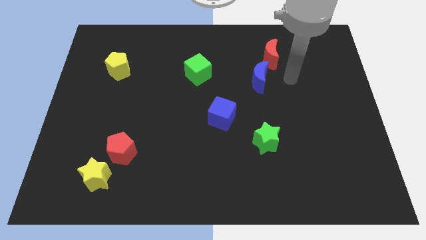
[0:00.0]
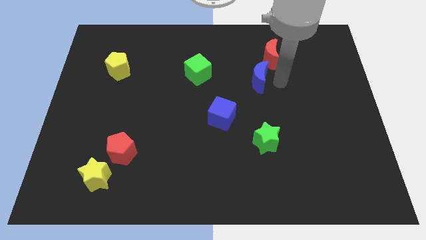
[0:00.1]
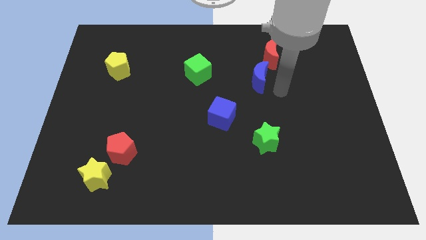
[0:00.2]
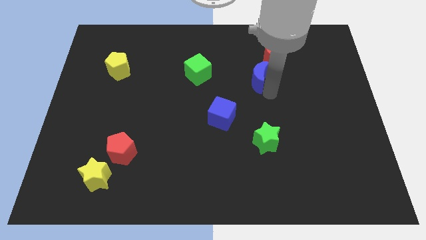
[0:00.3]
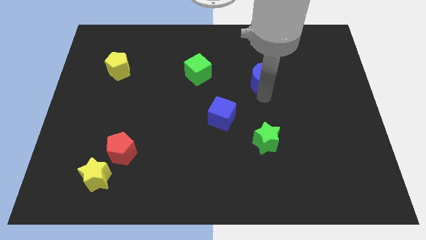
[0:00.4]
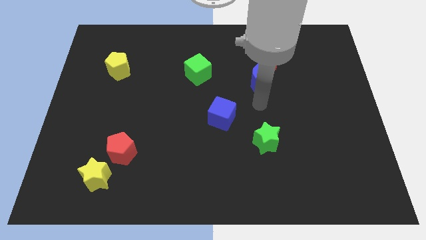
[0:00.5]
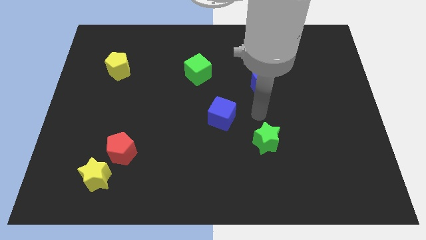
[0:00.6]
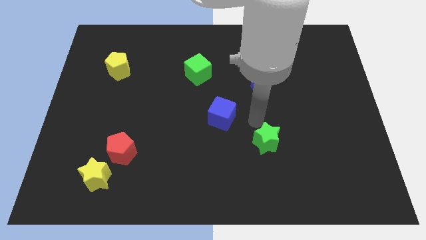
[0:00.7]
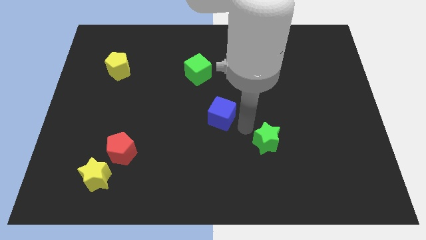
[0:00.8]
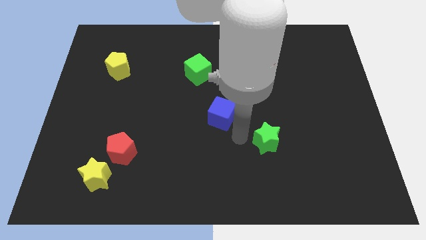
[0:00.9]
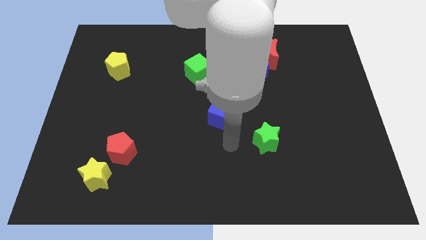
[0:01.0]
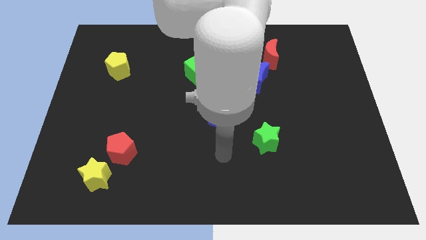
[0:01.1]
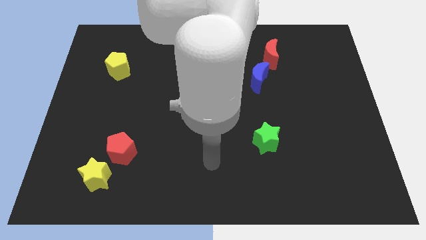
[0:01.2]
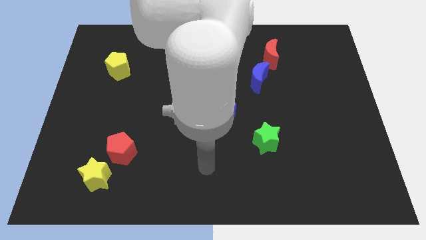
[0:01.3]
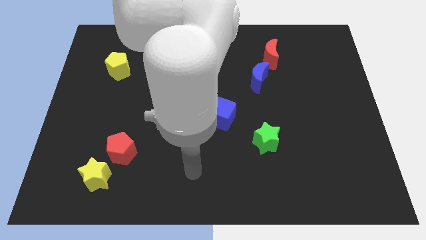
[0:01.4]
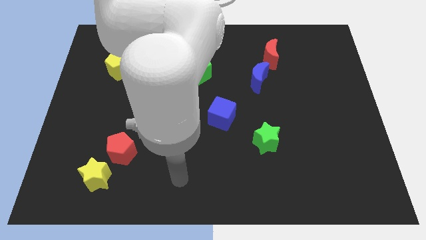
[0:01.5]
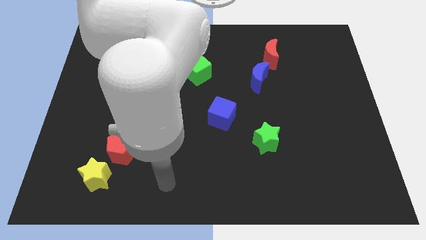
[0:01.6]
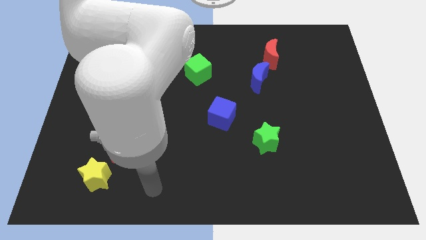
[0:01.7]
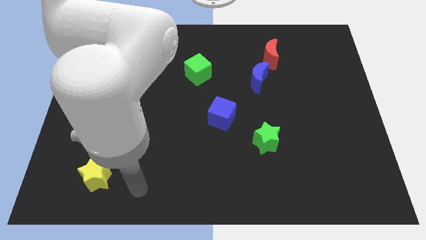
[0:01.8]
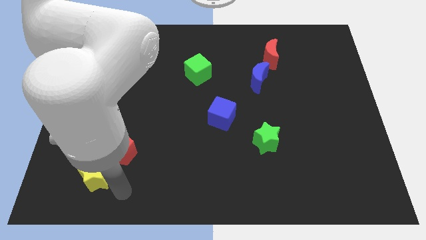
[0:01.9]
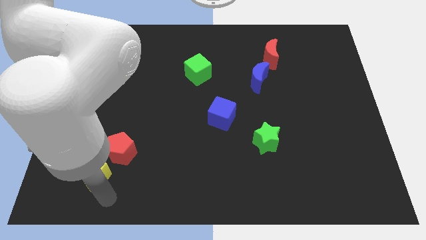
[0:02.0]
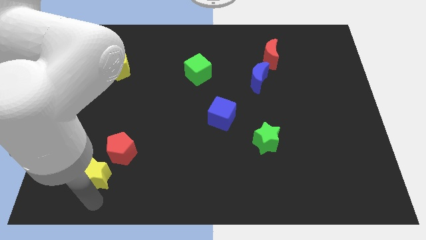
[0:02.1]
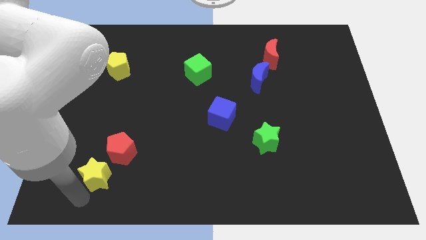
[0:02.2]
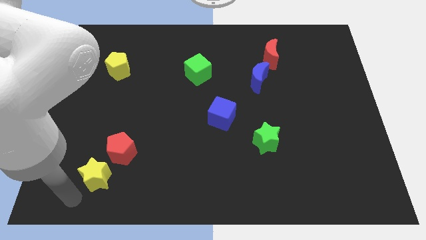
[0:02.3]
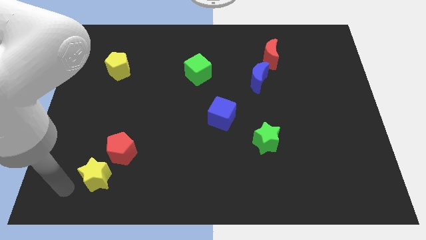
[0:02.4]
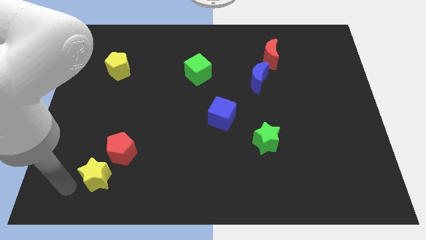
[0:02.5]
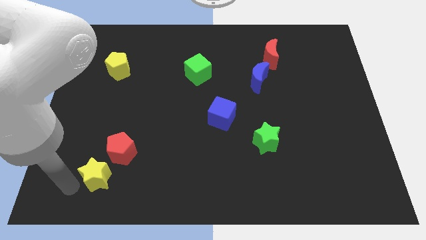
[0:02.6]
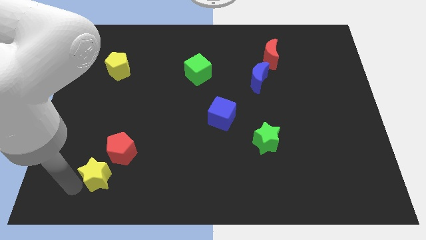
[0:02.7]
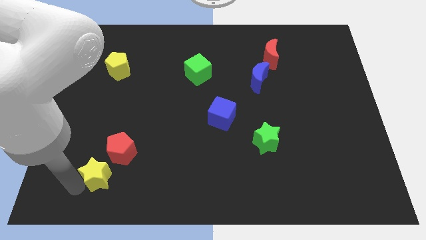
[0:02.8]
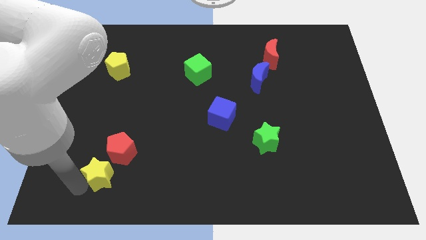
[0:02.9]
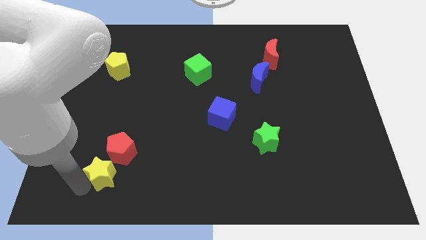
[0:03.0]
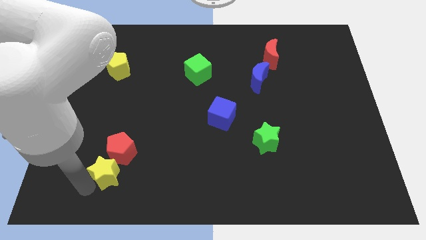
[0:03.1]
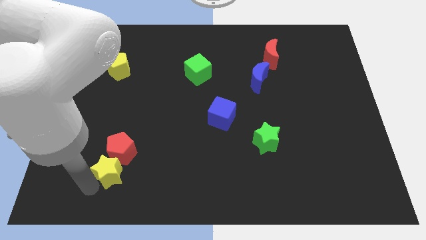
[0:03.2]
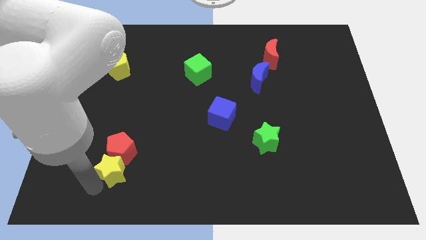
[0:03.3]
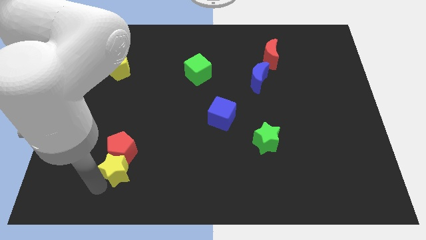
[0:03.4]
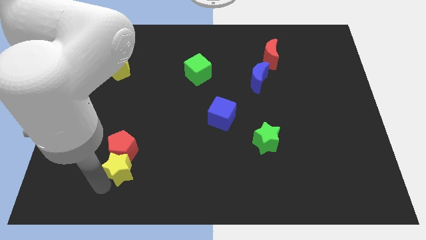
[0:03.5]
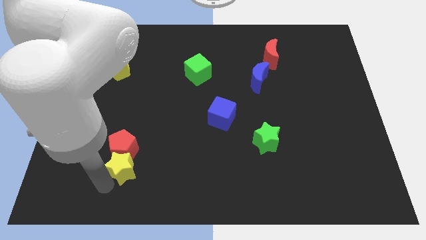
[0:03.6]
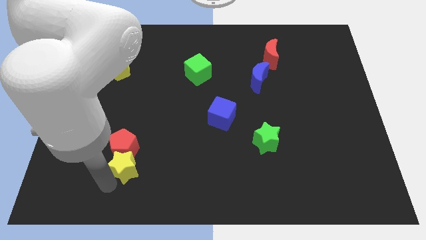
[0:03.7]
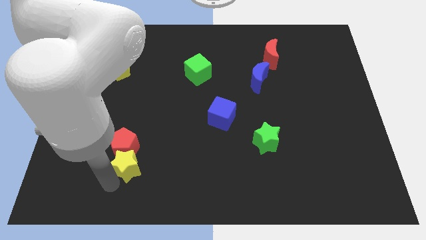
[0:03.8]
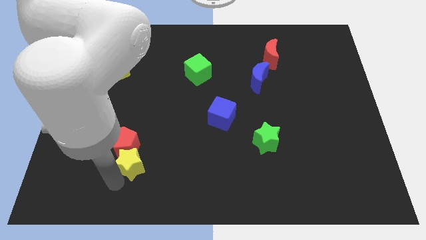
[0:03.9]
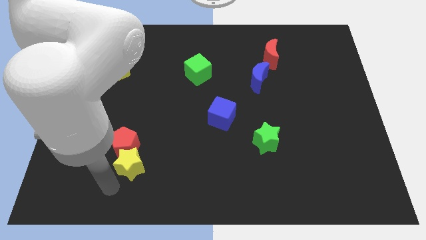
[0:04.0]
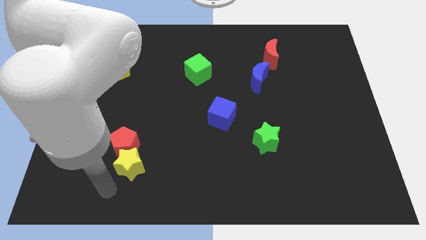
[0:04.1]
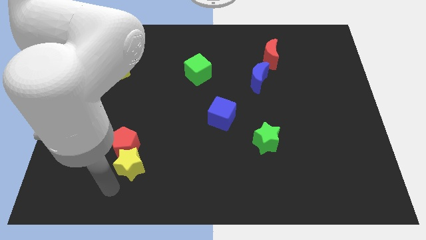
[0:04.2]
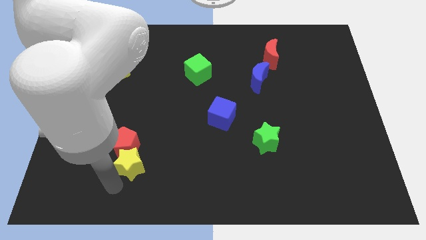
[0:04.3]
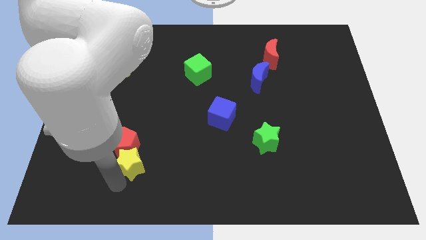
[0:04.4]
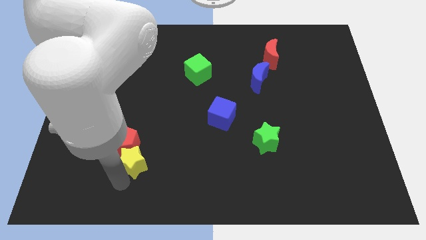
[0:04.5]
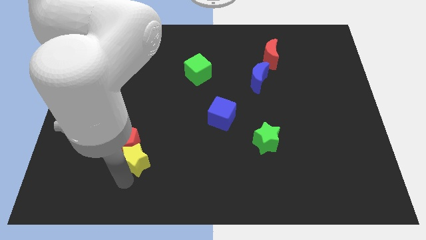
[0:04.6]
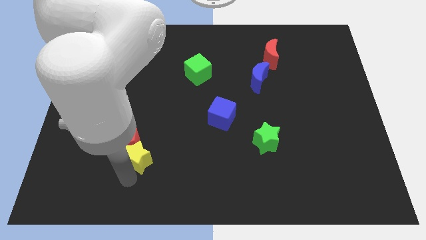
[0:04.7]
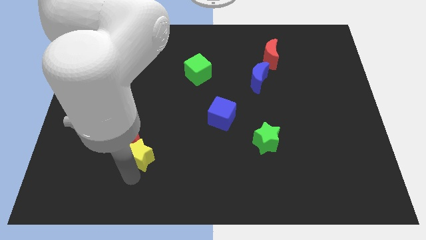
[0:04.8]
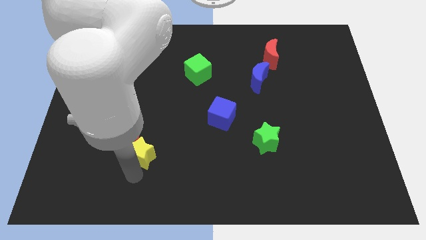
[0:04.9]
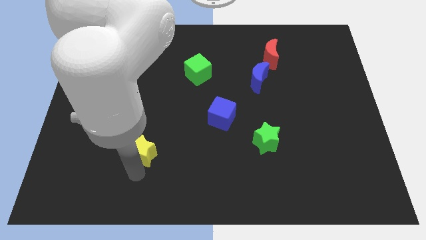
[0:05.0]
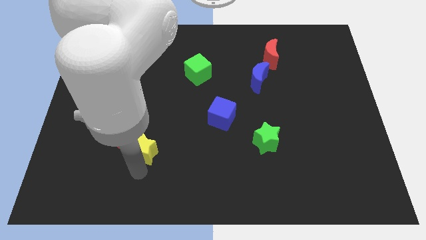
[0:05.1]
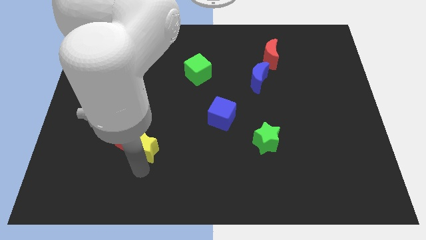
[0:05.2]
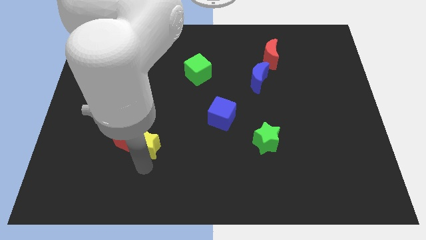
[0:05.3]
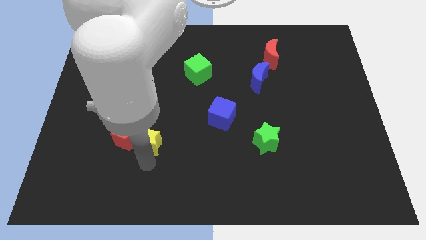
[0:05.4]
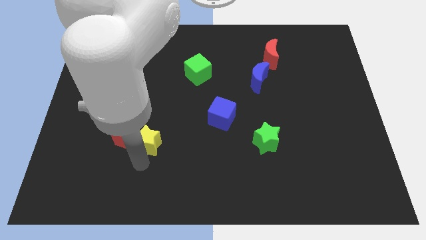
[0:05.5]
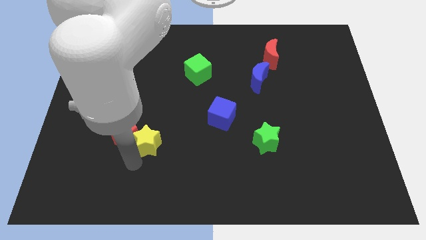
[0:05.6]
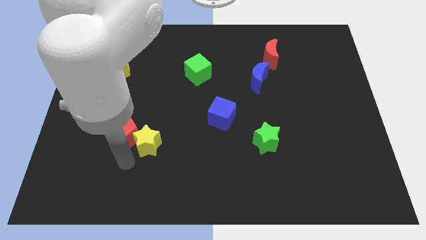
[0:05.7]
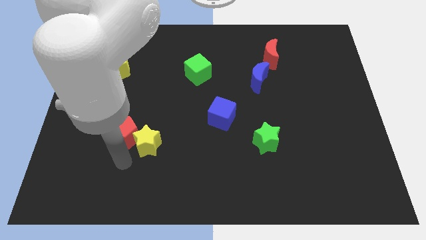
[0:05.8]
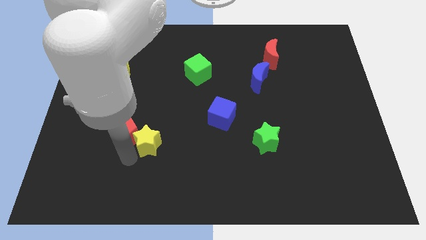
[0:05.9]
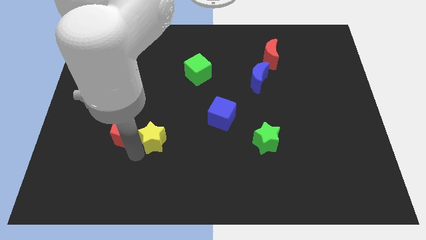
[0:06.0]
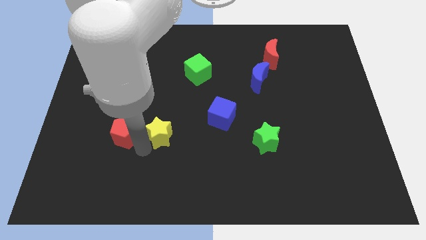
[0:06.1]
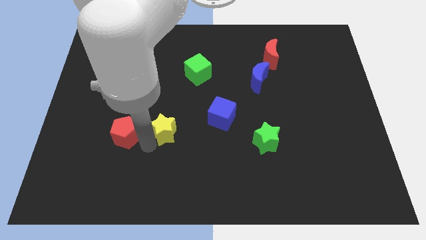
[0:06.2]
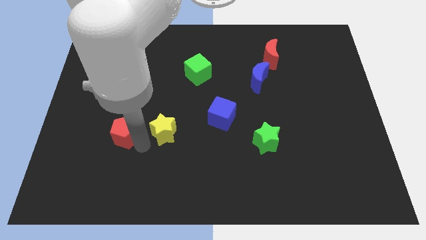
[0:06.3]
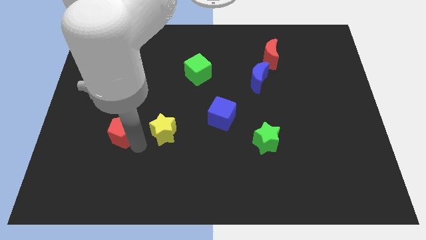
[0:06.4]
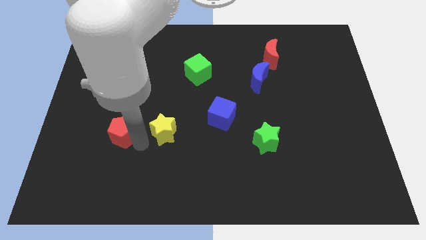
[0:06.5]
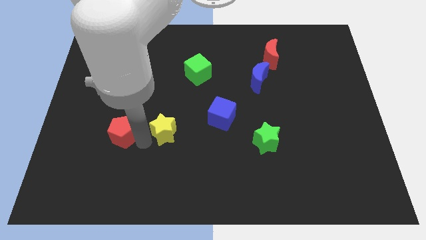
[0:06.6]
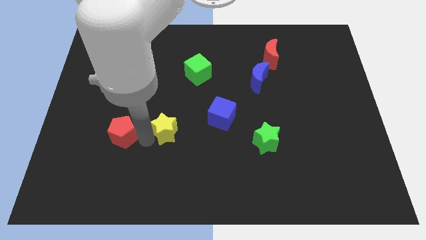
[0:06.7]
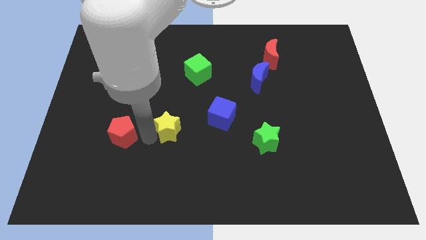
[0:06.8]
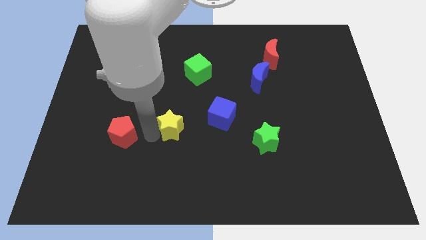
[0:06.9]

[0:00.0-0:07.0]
put the yellow star to the center
